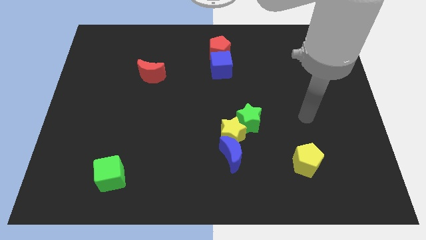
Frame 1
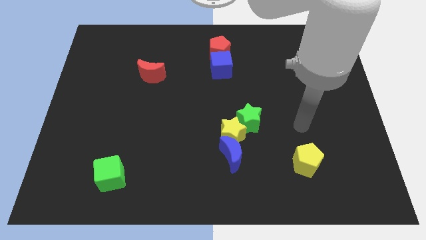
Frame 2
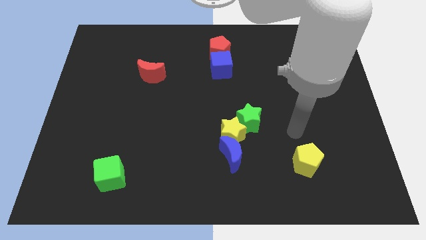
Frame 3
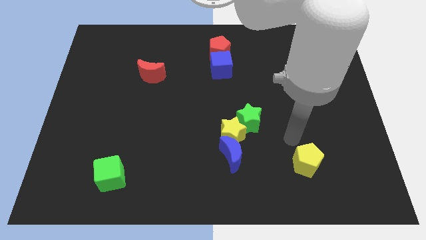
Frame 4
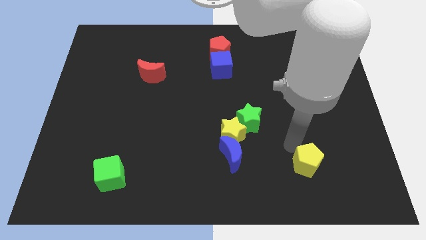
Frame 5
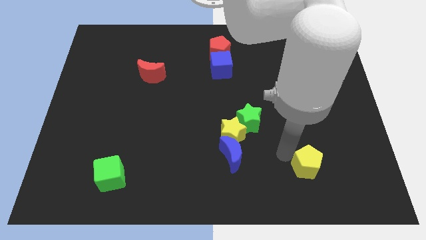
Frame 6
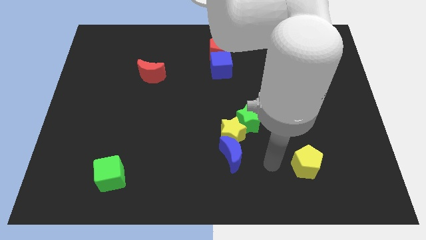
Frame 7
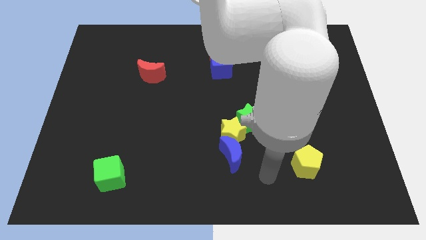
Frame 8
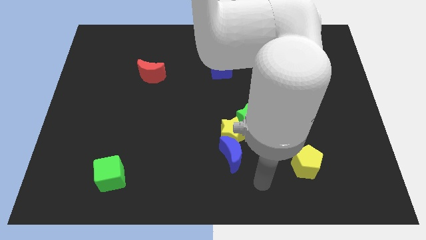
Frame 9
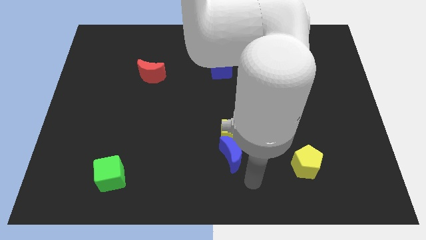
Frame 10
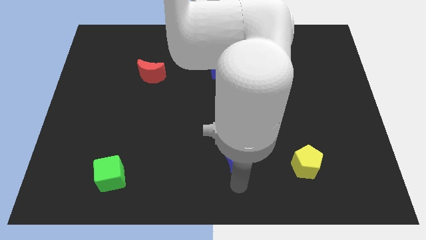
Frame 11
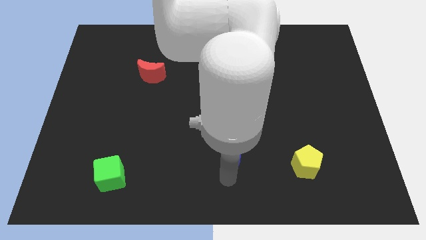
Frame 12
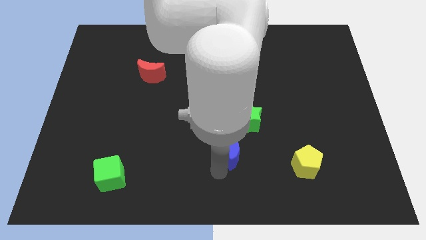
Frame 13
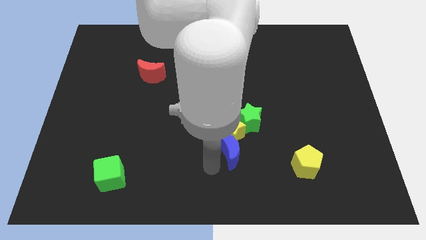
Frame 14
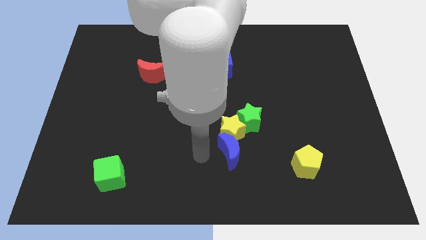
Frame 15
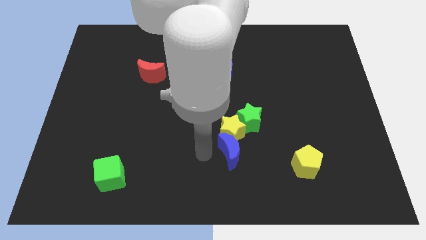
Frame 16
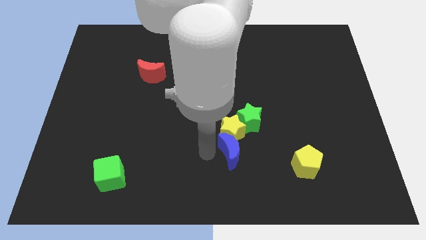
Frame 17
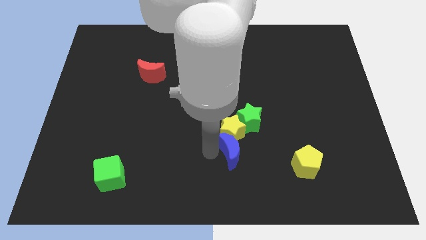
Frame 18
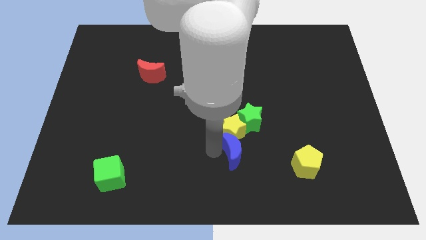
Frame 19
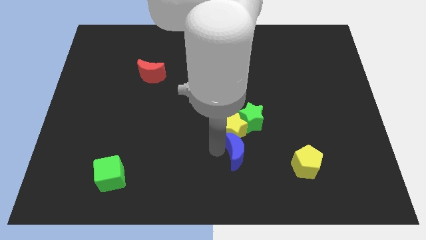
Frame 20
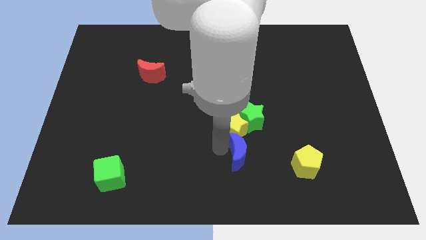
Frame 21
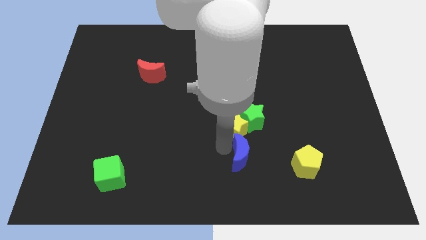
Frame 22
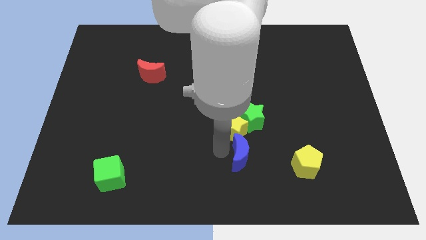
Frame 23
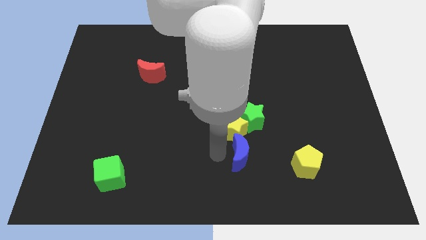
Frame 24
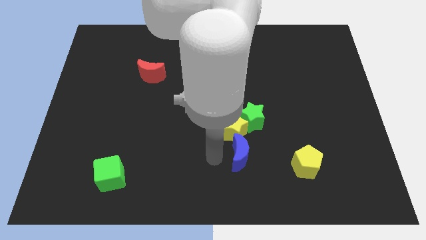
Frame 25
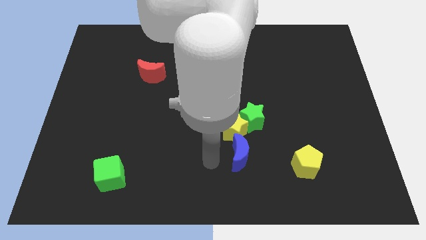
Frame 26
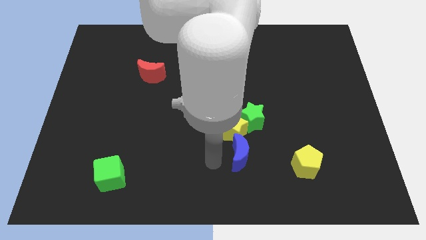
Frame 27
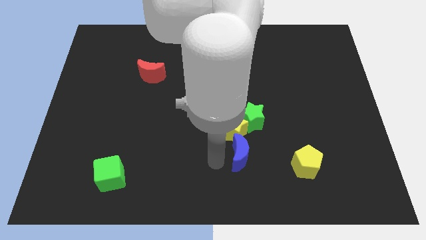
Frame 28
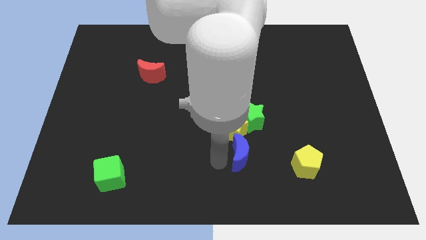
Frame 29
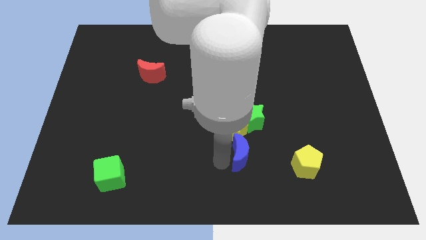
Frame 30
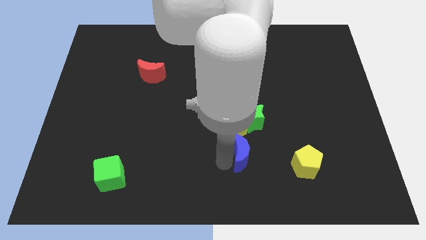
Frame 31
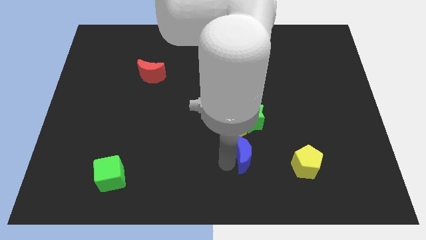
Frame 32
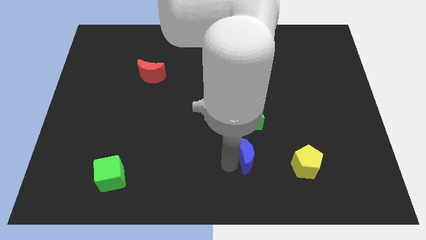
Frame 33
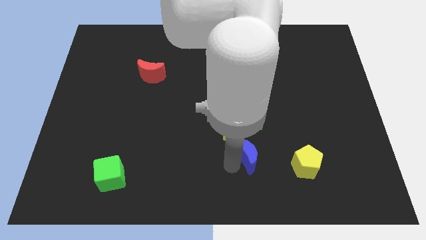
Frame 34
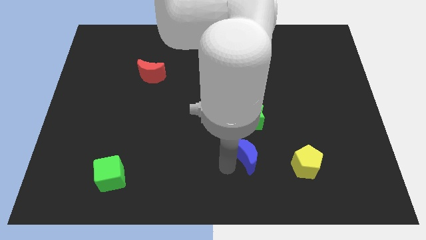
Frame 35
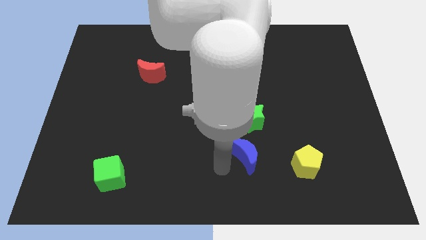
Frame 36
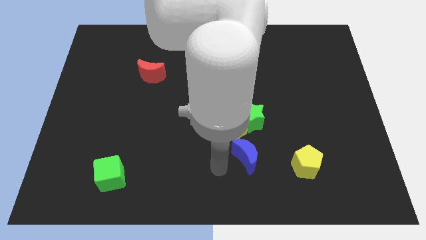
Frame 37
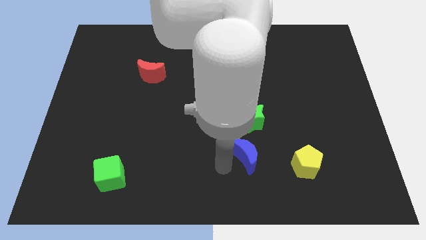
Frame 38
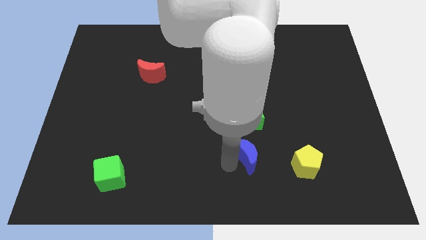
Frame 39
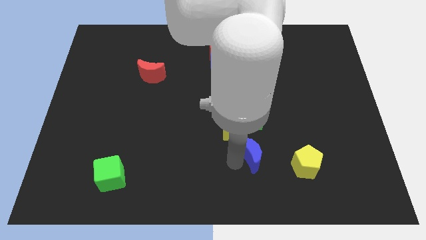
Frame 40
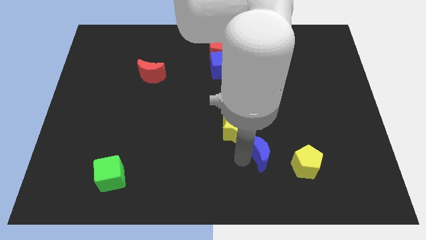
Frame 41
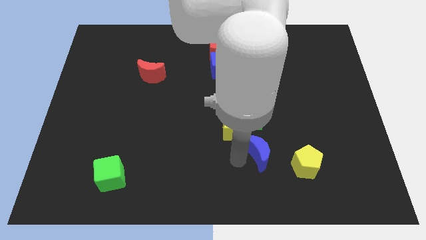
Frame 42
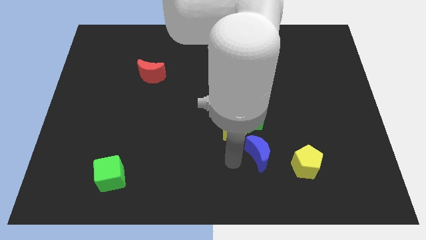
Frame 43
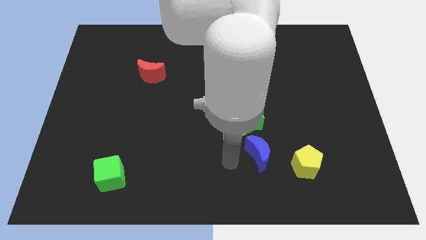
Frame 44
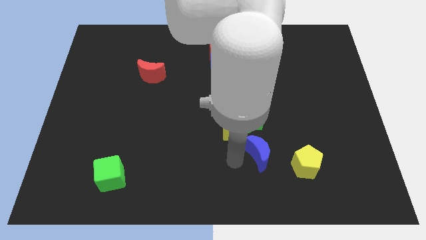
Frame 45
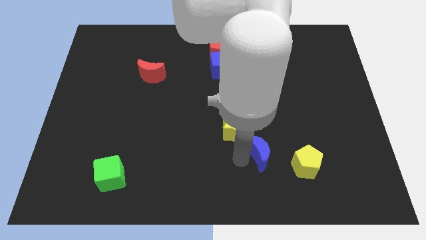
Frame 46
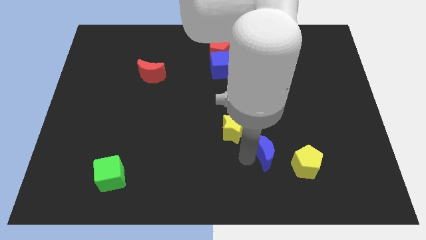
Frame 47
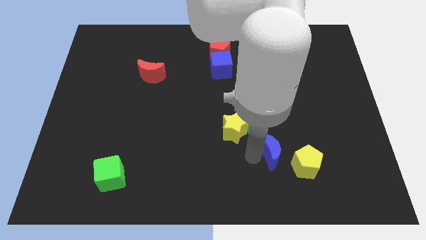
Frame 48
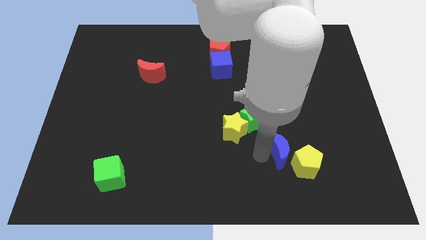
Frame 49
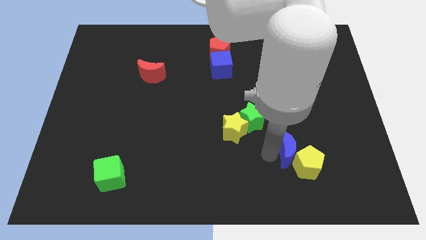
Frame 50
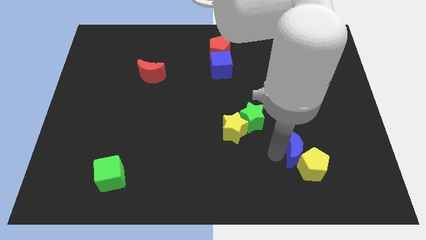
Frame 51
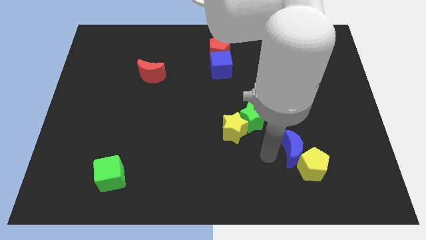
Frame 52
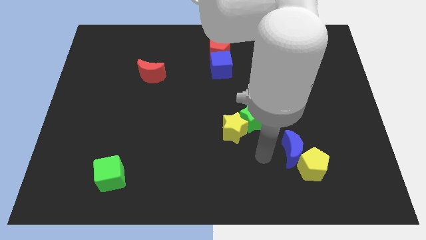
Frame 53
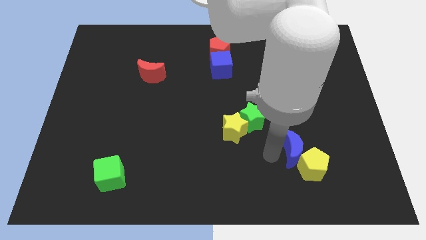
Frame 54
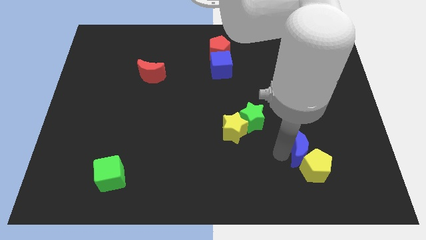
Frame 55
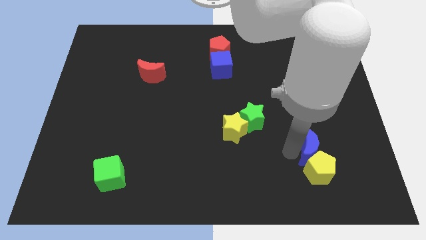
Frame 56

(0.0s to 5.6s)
push the blue moon to the top right side of the yellow pentagon
